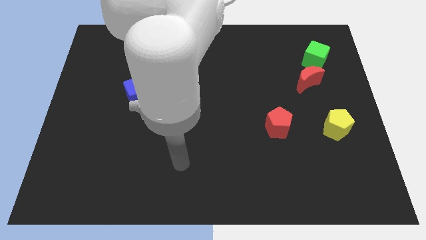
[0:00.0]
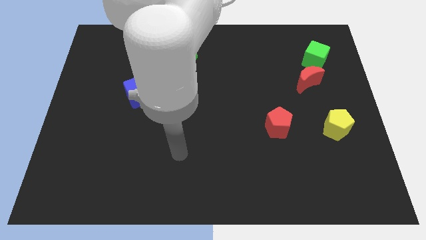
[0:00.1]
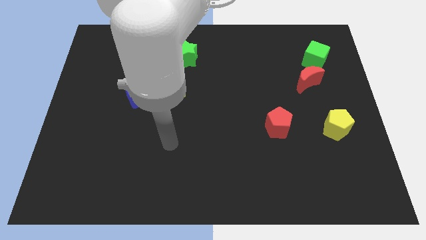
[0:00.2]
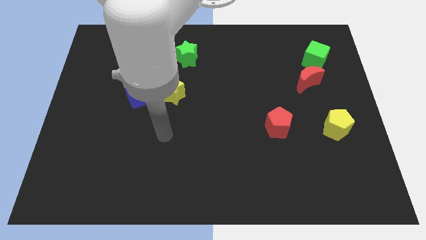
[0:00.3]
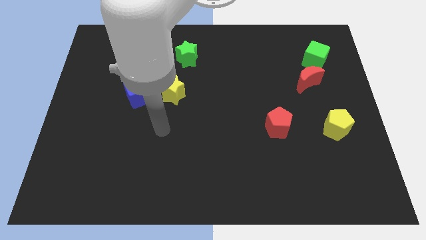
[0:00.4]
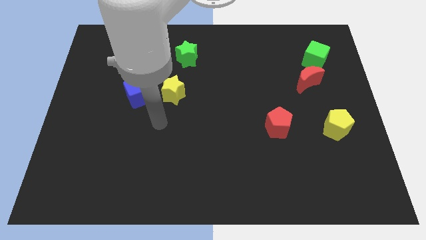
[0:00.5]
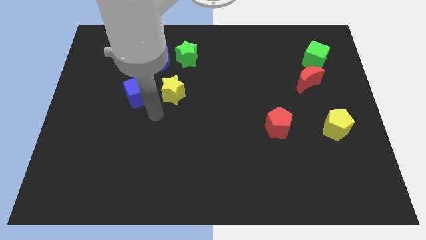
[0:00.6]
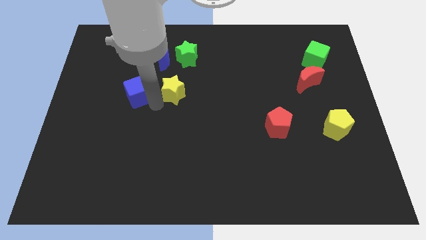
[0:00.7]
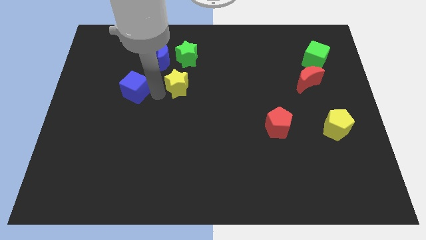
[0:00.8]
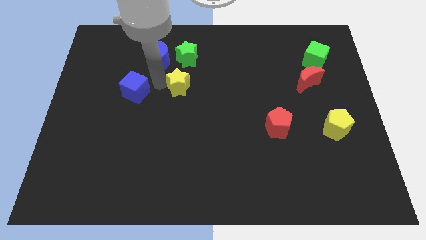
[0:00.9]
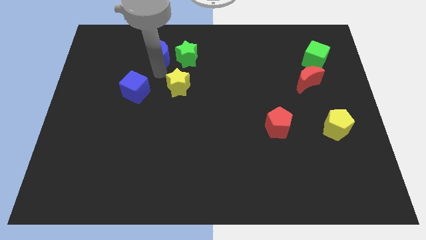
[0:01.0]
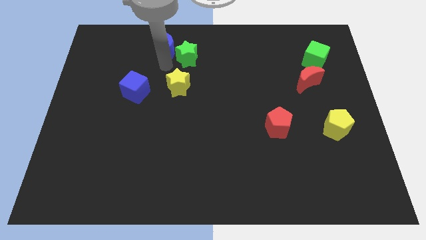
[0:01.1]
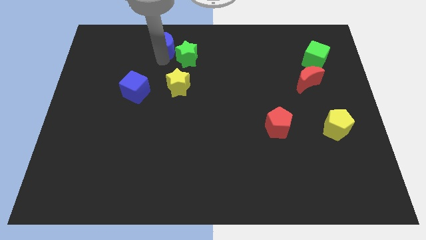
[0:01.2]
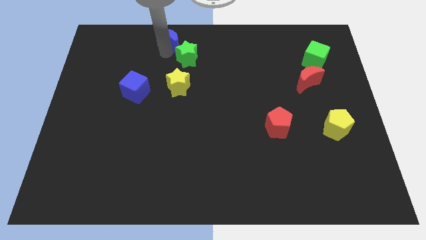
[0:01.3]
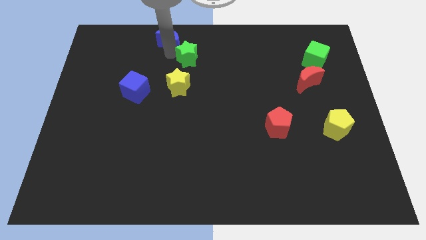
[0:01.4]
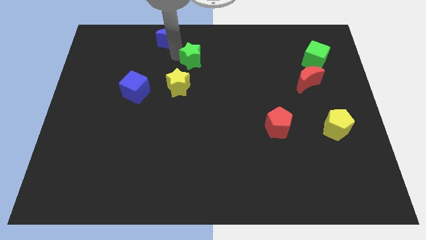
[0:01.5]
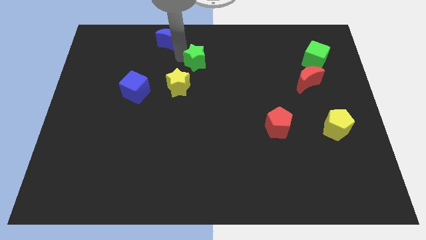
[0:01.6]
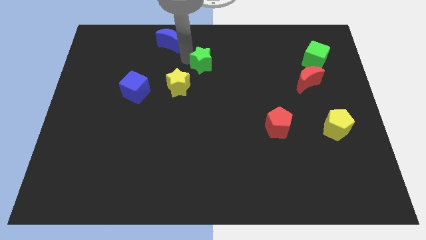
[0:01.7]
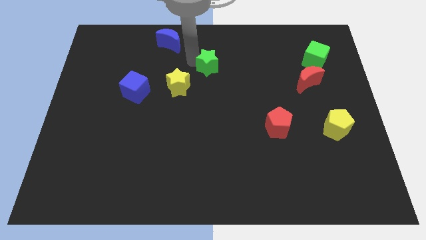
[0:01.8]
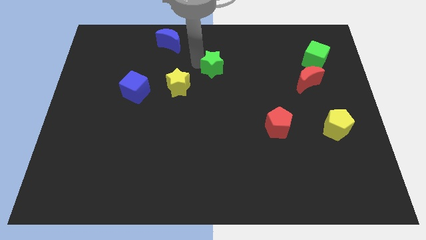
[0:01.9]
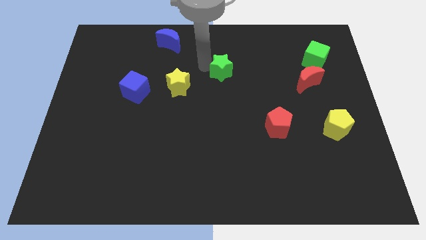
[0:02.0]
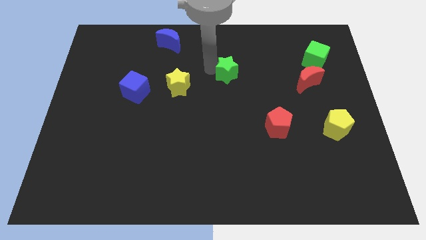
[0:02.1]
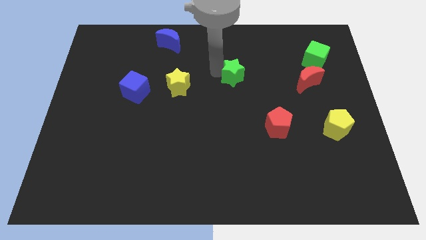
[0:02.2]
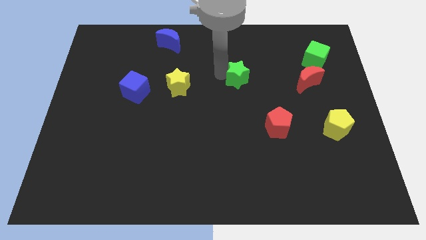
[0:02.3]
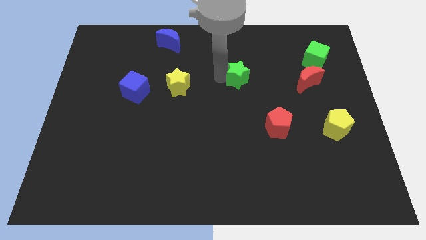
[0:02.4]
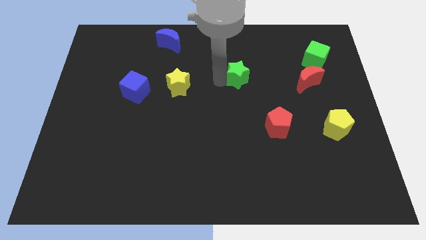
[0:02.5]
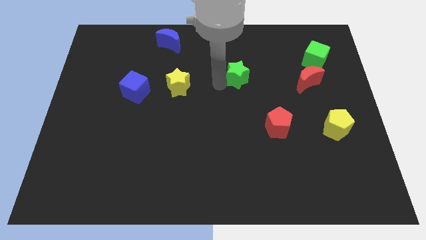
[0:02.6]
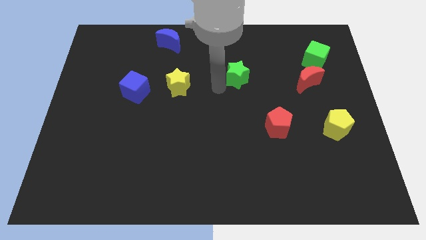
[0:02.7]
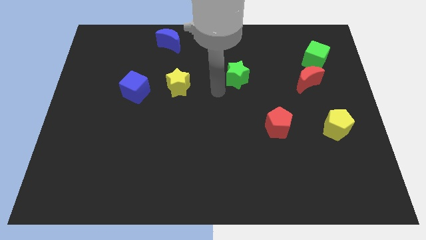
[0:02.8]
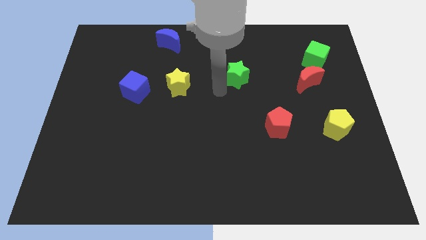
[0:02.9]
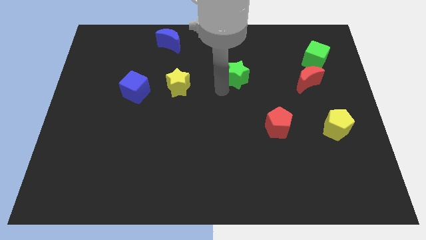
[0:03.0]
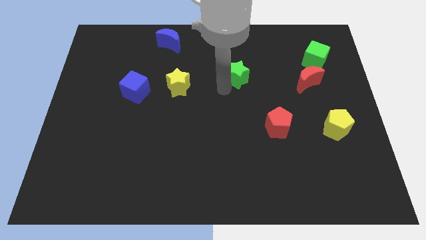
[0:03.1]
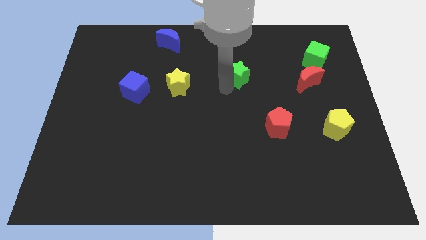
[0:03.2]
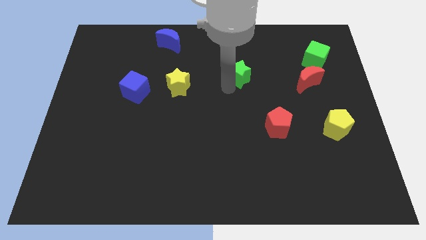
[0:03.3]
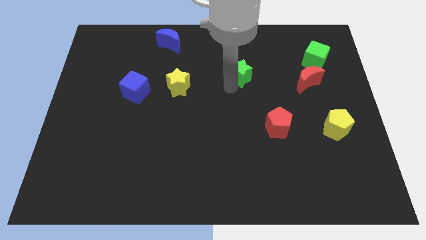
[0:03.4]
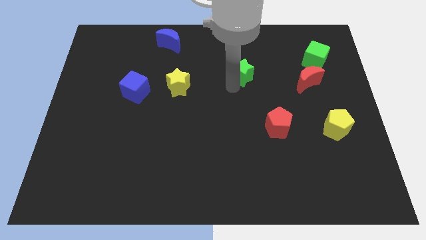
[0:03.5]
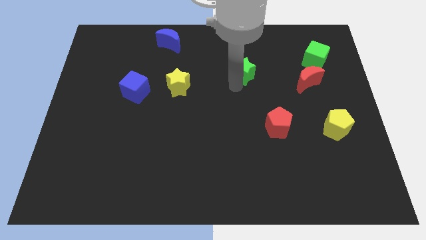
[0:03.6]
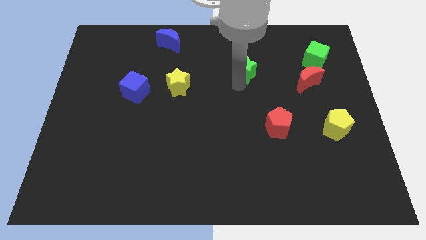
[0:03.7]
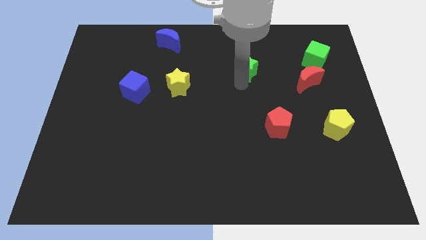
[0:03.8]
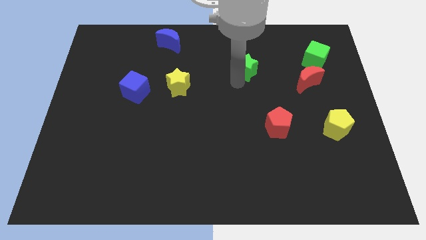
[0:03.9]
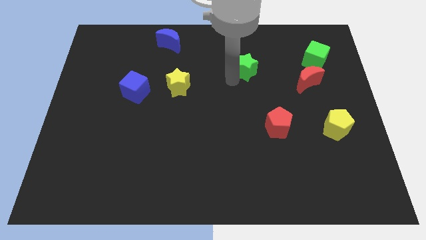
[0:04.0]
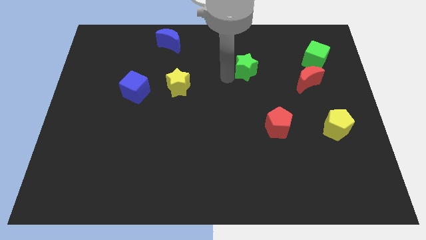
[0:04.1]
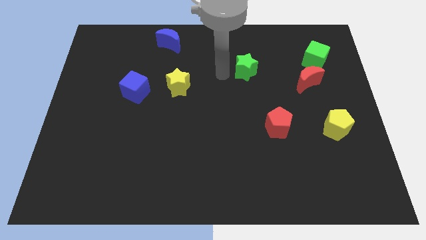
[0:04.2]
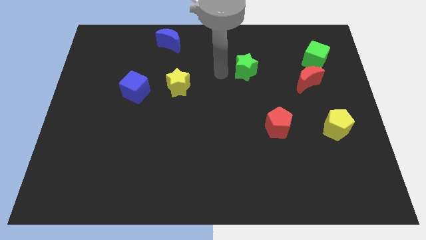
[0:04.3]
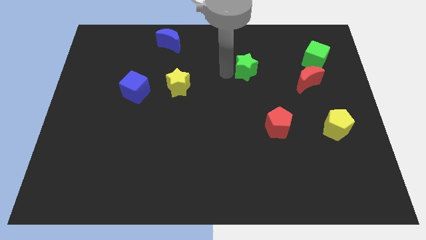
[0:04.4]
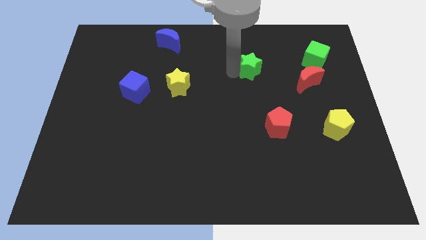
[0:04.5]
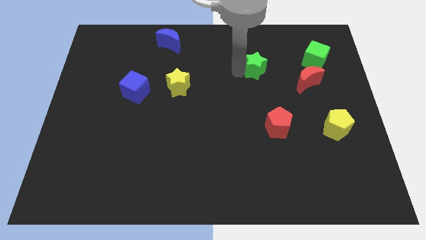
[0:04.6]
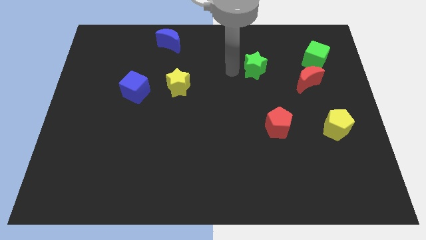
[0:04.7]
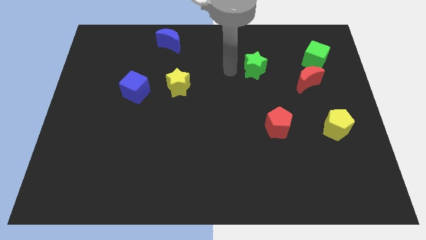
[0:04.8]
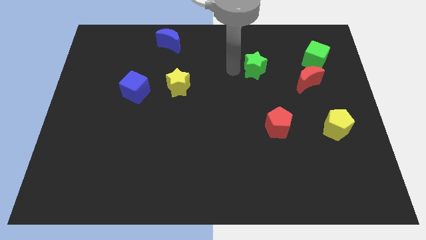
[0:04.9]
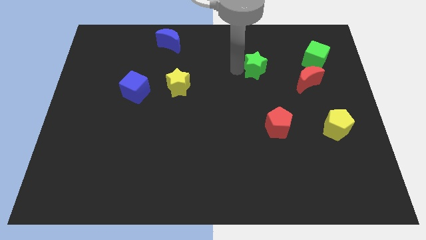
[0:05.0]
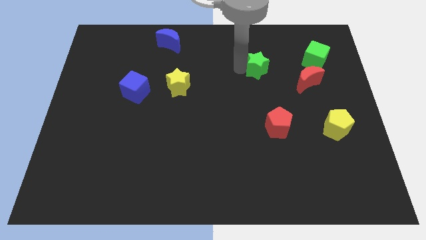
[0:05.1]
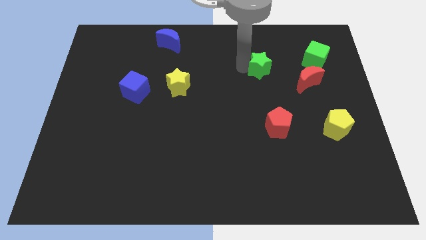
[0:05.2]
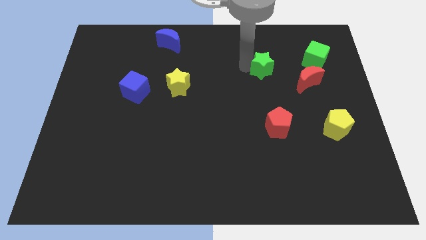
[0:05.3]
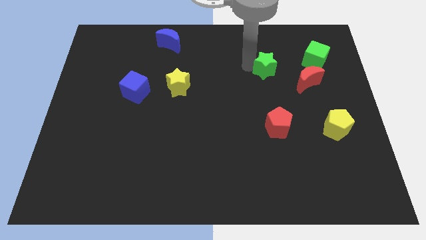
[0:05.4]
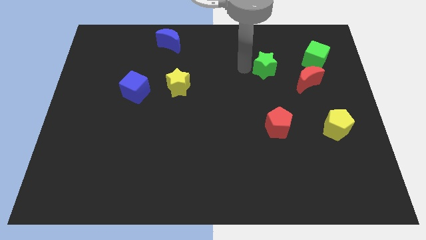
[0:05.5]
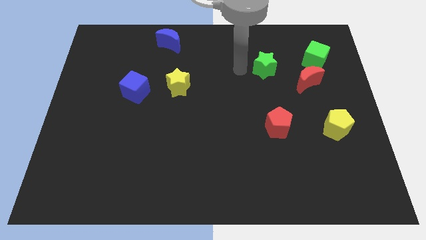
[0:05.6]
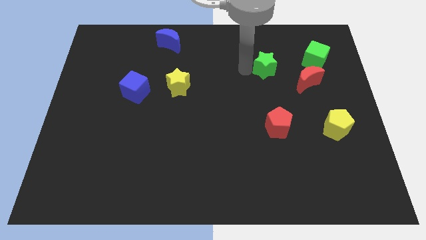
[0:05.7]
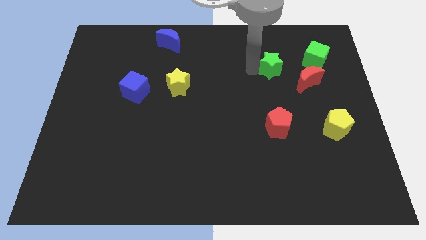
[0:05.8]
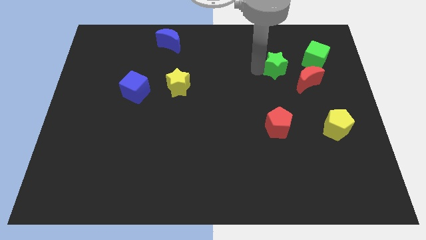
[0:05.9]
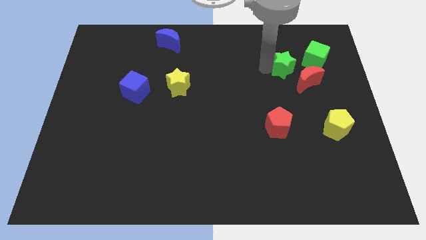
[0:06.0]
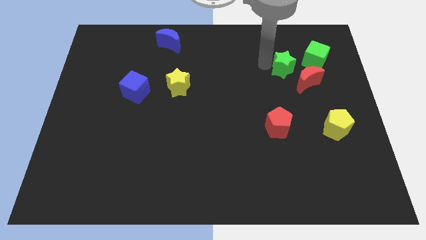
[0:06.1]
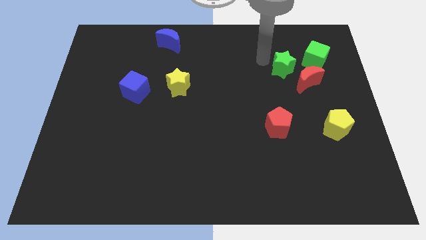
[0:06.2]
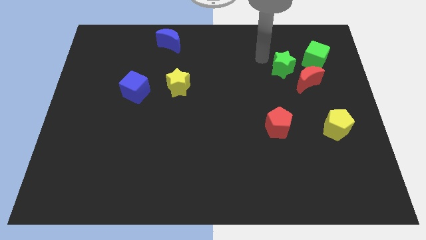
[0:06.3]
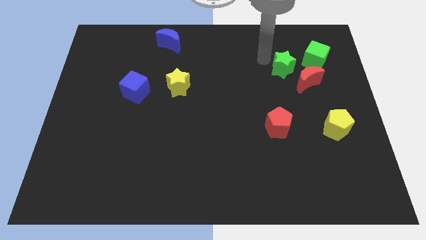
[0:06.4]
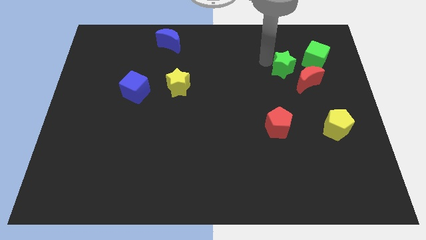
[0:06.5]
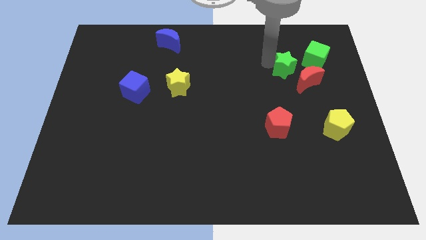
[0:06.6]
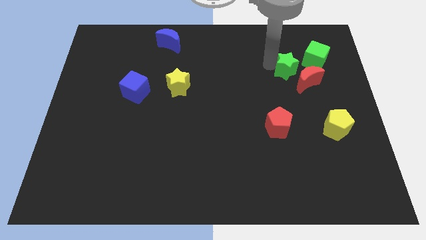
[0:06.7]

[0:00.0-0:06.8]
slide the green star next to the red moon

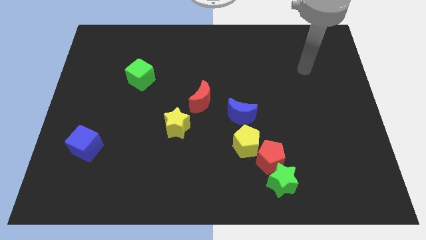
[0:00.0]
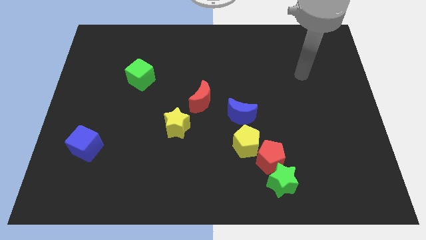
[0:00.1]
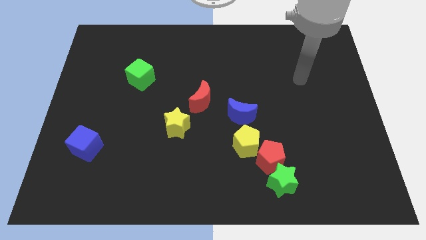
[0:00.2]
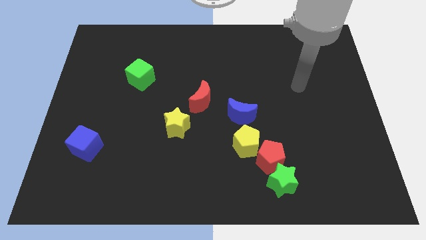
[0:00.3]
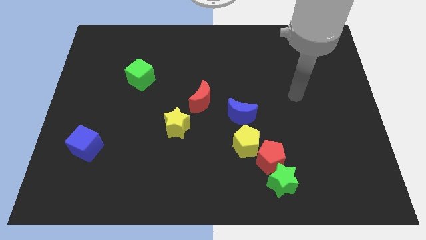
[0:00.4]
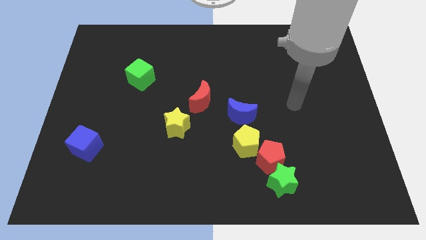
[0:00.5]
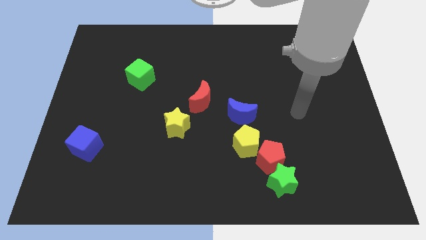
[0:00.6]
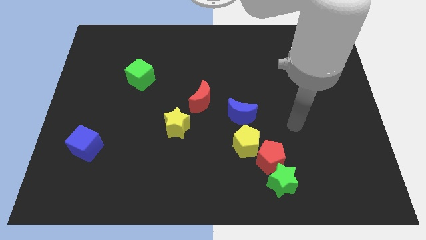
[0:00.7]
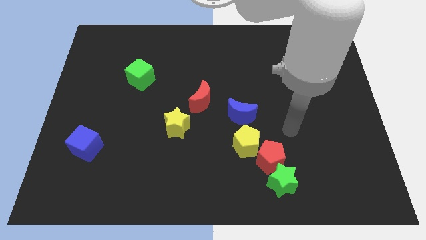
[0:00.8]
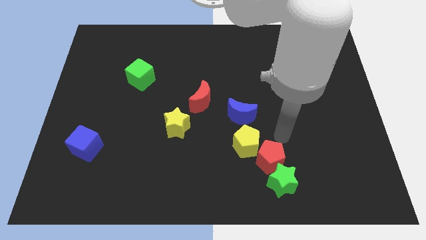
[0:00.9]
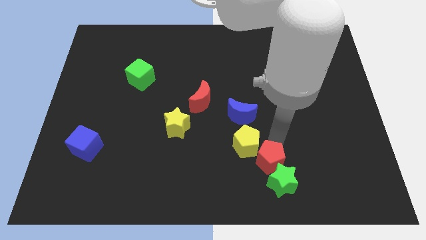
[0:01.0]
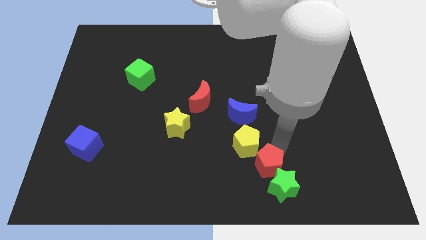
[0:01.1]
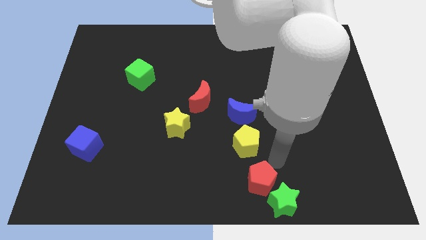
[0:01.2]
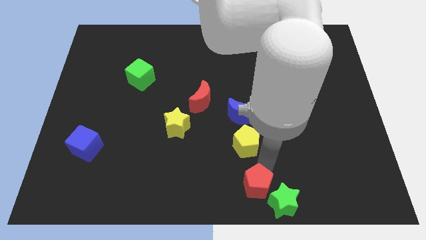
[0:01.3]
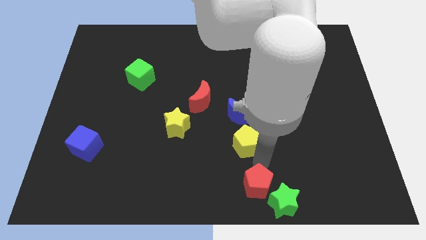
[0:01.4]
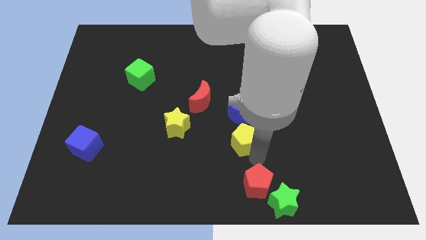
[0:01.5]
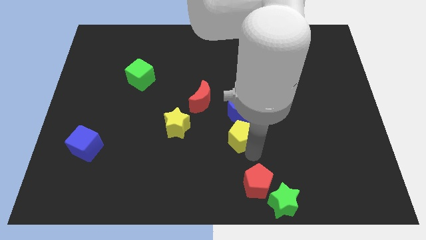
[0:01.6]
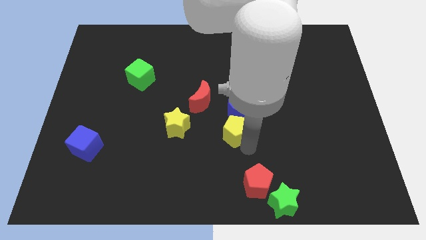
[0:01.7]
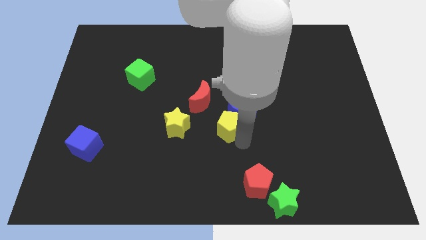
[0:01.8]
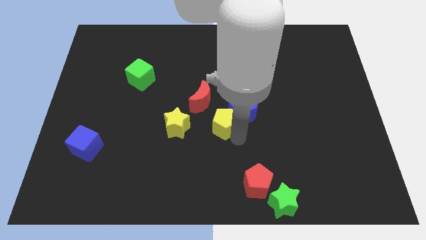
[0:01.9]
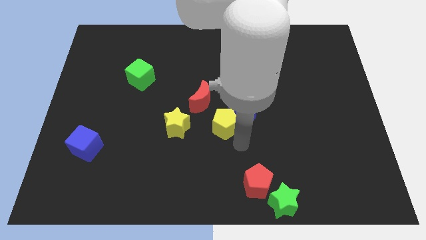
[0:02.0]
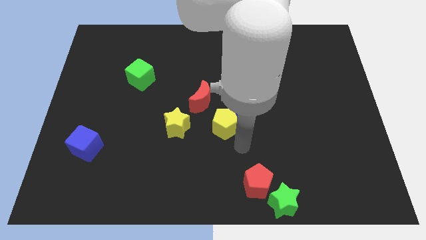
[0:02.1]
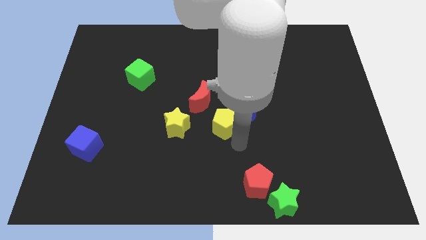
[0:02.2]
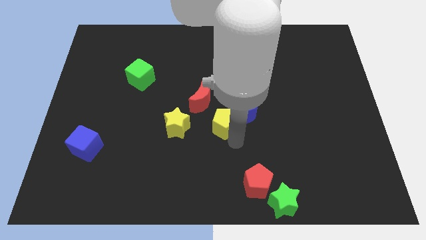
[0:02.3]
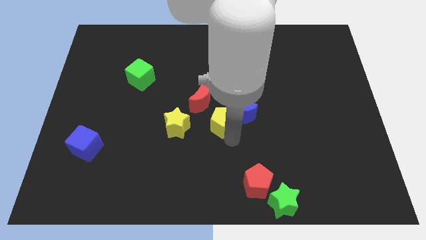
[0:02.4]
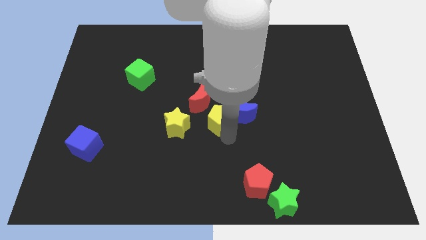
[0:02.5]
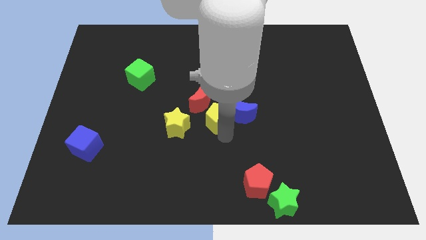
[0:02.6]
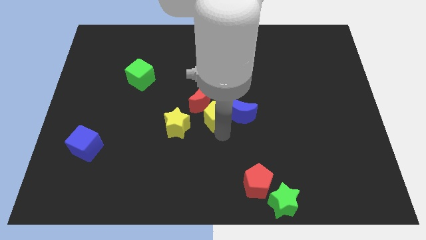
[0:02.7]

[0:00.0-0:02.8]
slide the yellow pentagon next to the red moon
